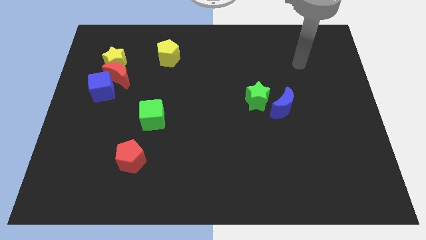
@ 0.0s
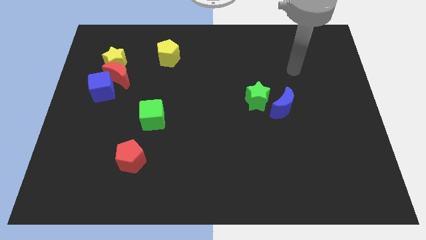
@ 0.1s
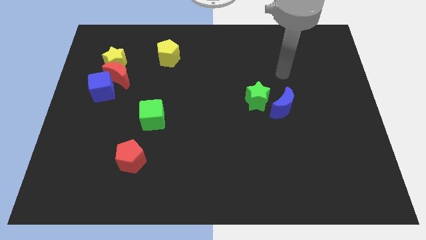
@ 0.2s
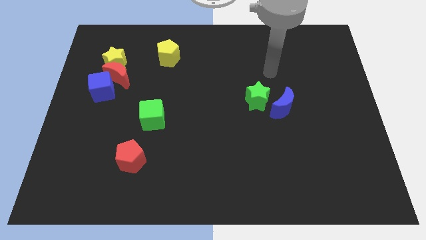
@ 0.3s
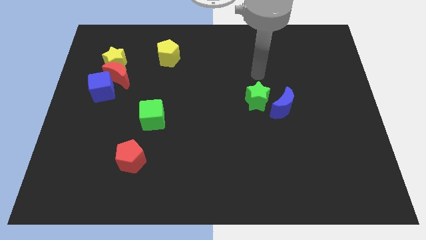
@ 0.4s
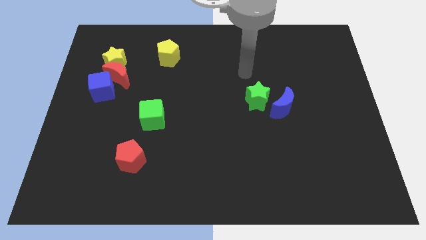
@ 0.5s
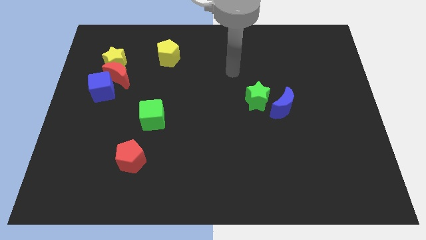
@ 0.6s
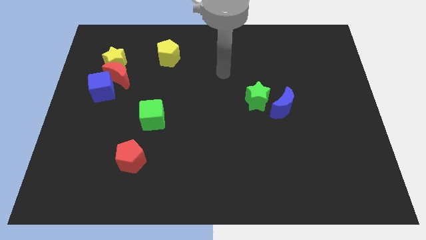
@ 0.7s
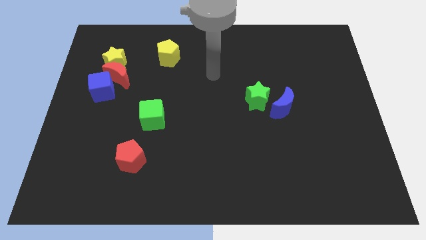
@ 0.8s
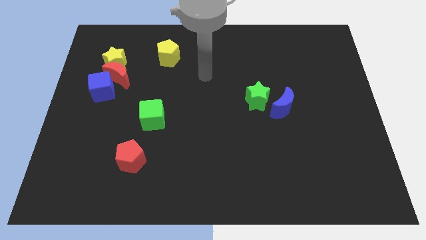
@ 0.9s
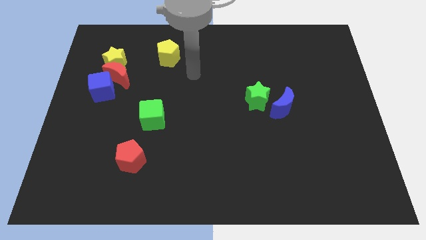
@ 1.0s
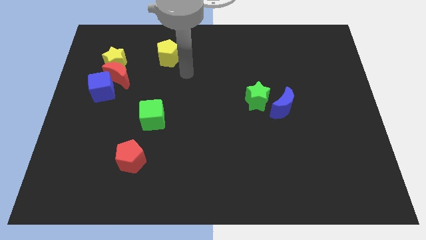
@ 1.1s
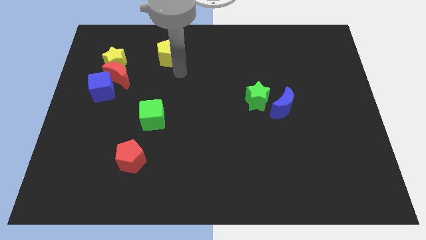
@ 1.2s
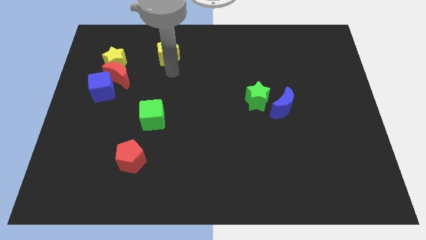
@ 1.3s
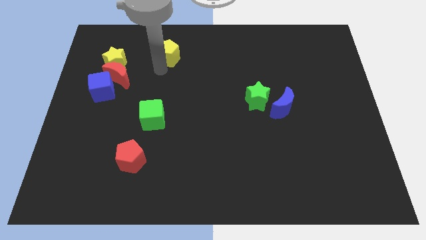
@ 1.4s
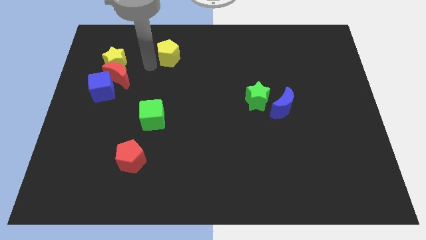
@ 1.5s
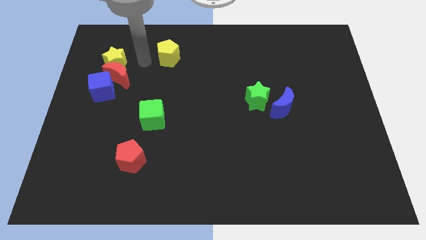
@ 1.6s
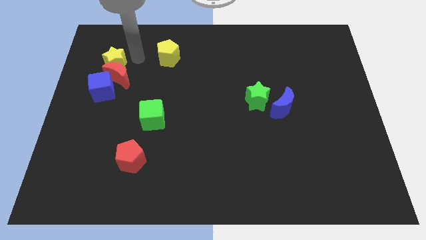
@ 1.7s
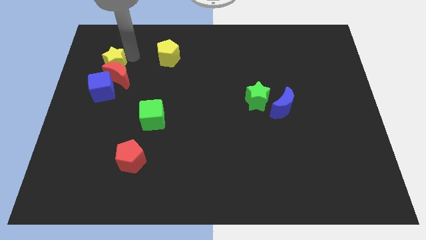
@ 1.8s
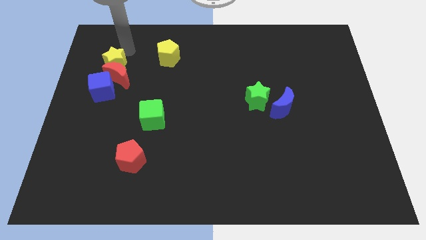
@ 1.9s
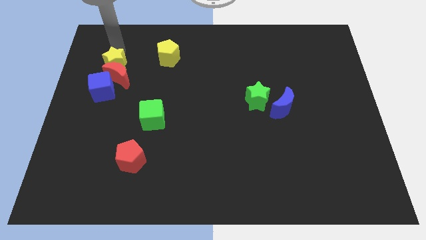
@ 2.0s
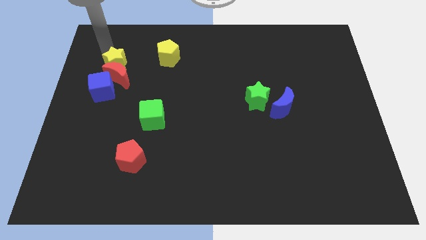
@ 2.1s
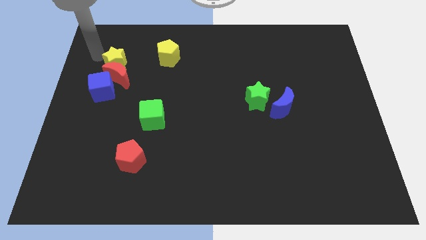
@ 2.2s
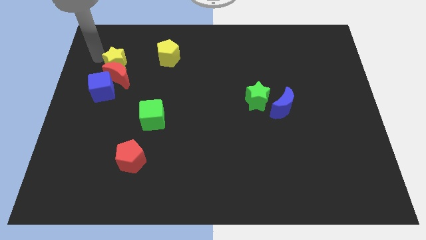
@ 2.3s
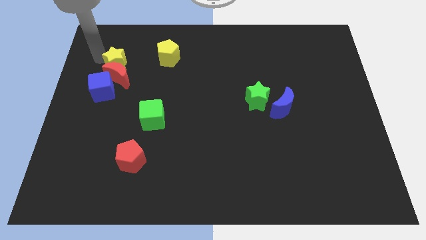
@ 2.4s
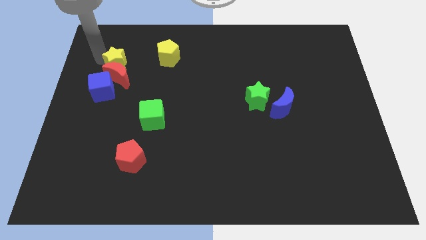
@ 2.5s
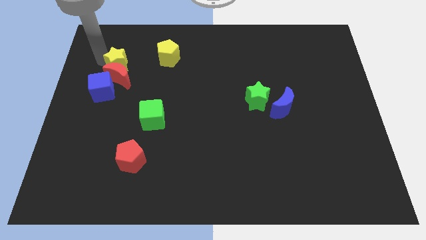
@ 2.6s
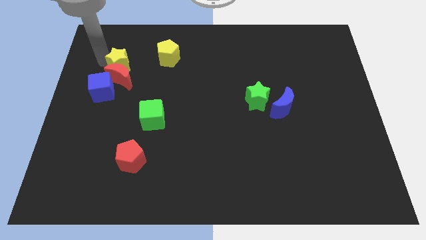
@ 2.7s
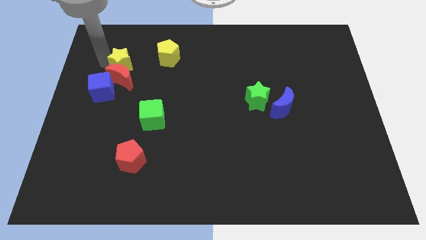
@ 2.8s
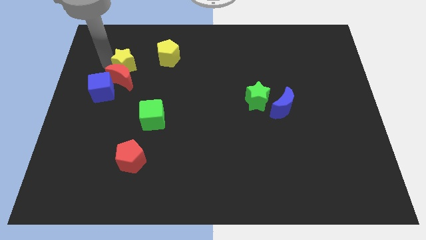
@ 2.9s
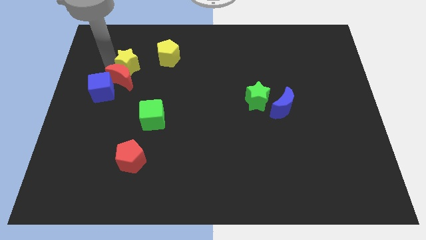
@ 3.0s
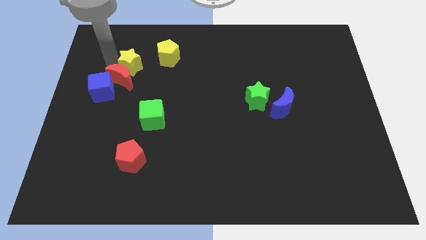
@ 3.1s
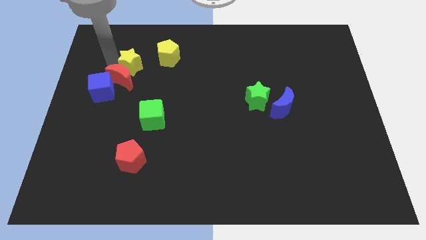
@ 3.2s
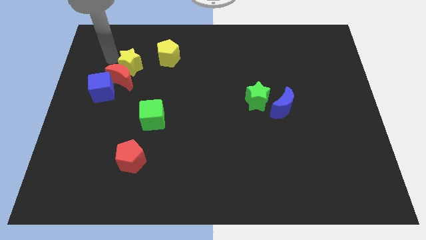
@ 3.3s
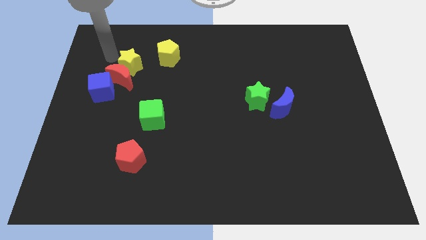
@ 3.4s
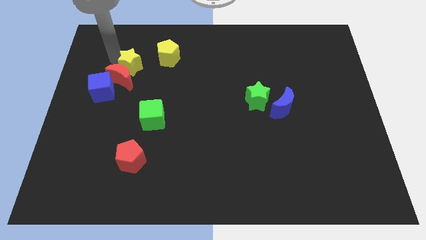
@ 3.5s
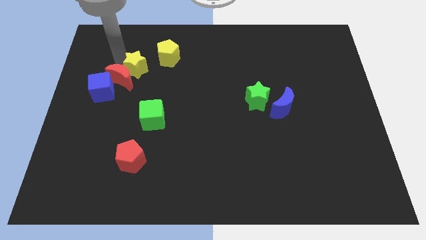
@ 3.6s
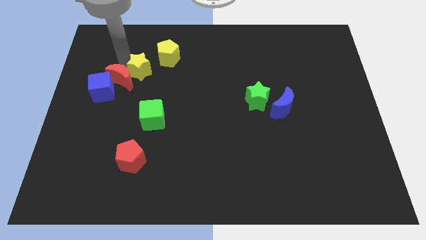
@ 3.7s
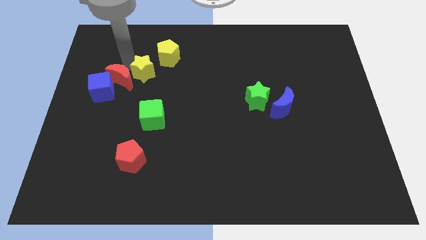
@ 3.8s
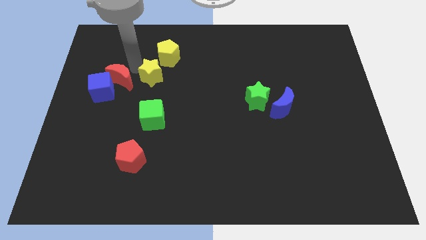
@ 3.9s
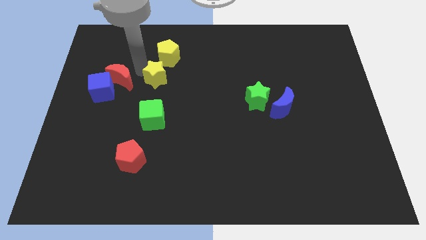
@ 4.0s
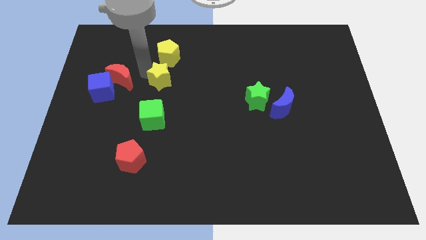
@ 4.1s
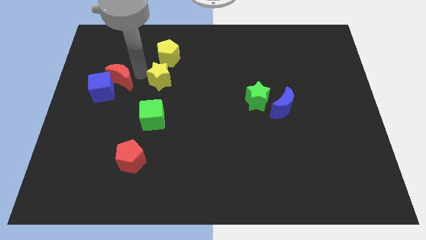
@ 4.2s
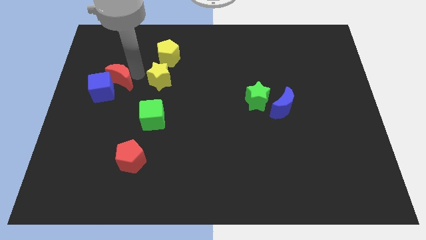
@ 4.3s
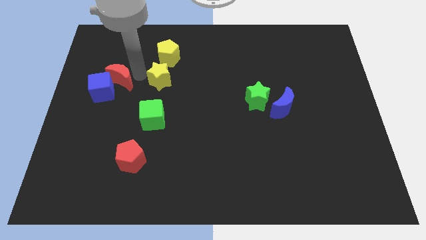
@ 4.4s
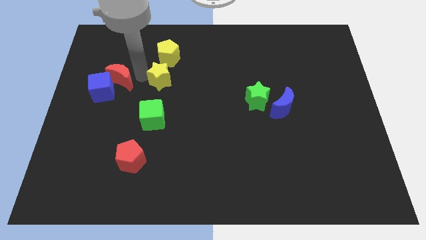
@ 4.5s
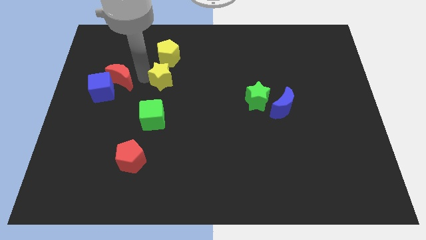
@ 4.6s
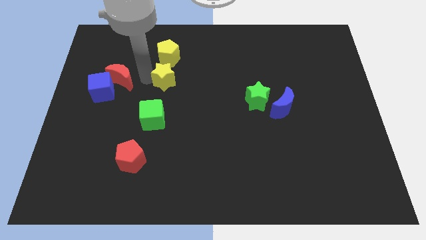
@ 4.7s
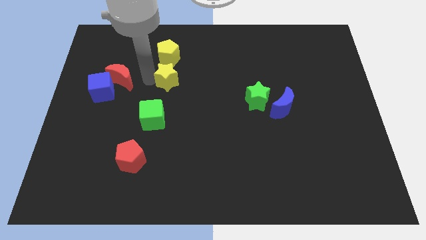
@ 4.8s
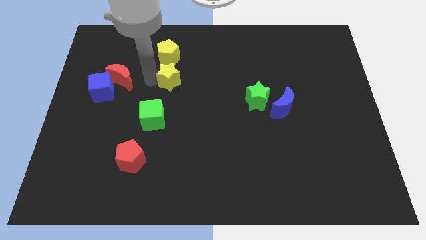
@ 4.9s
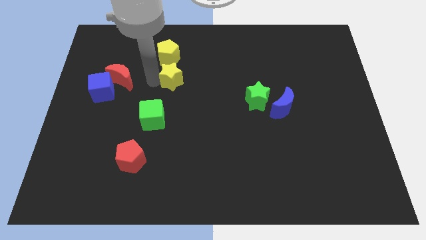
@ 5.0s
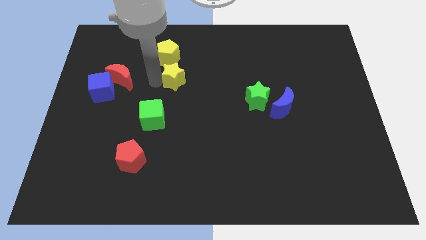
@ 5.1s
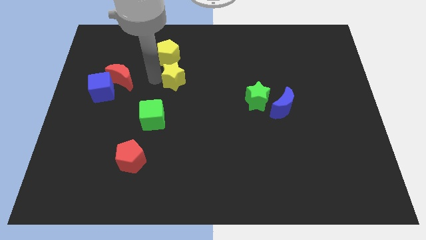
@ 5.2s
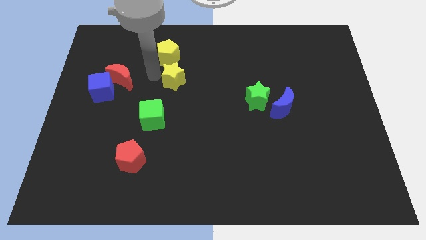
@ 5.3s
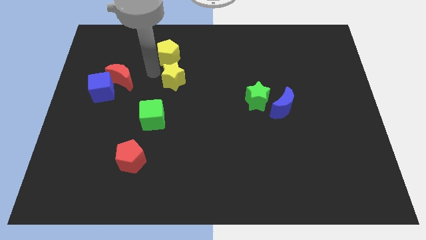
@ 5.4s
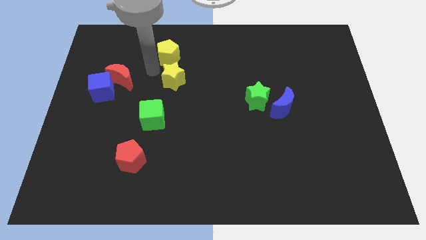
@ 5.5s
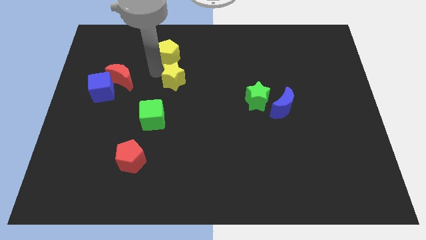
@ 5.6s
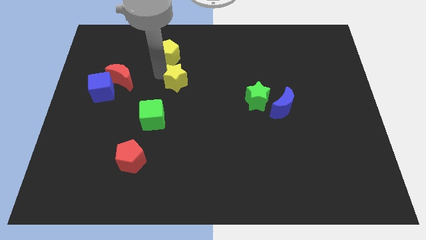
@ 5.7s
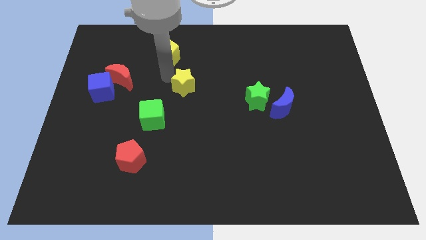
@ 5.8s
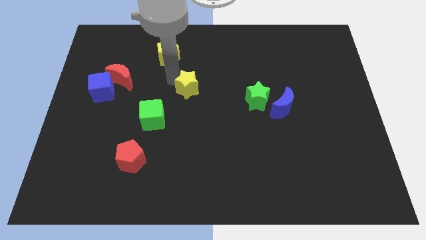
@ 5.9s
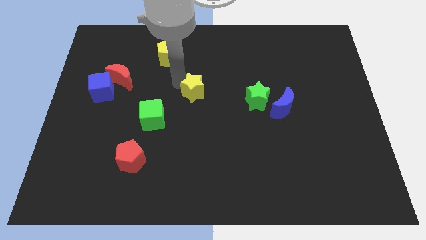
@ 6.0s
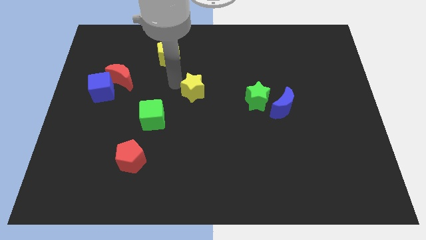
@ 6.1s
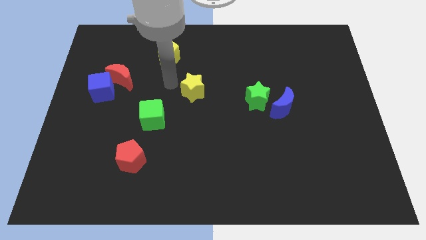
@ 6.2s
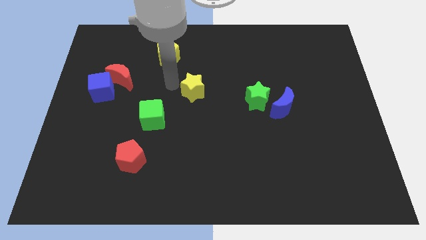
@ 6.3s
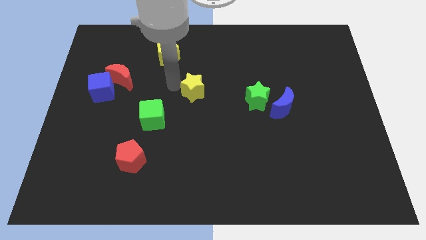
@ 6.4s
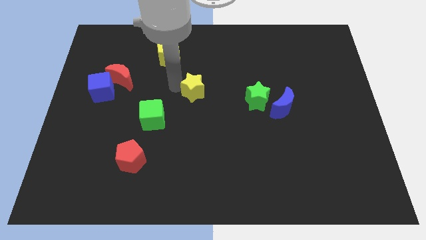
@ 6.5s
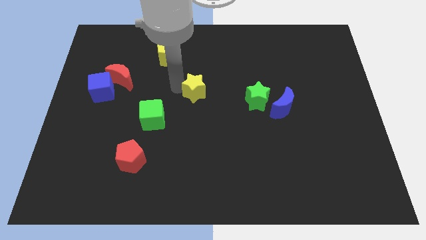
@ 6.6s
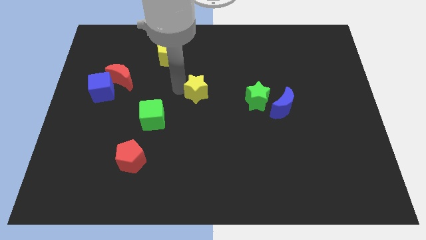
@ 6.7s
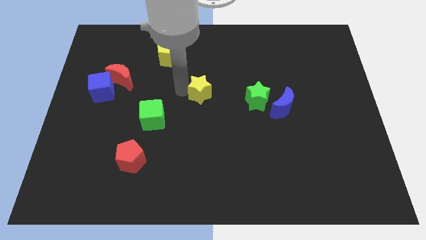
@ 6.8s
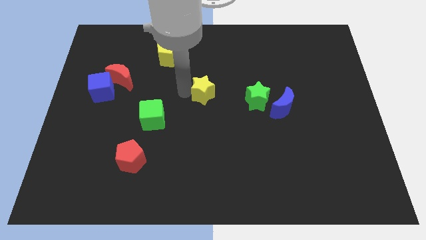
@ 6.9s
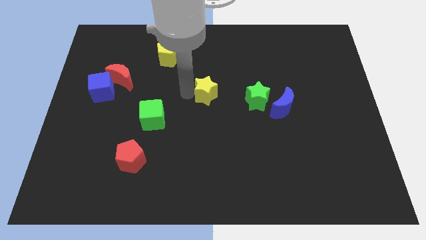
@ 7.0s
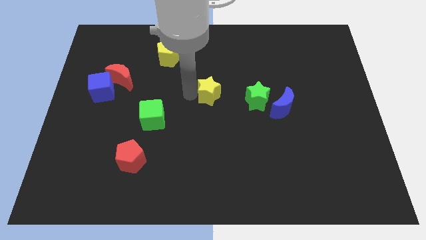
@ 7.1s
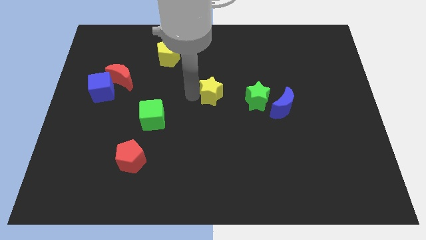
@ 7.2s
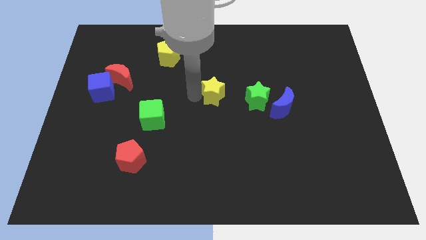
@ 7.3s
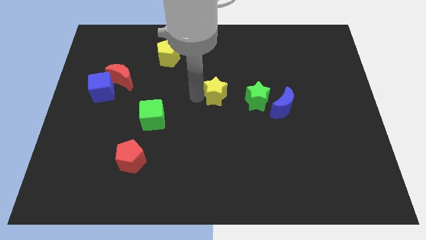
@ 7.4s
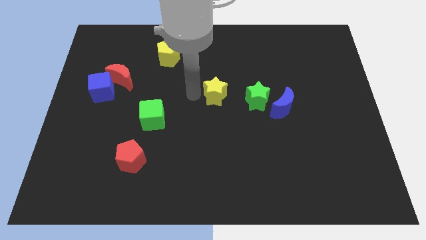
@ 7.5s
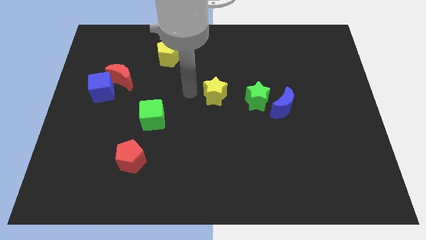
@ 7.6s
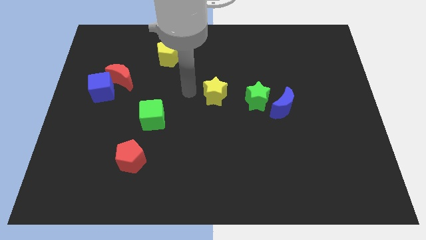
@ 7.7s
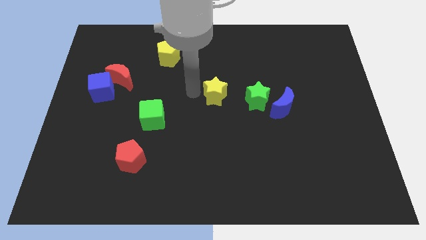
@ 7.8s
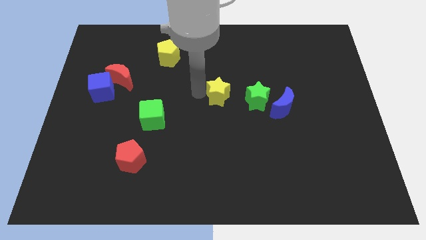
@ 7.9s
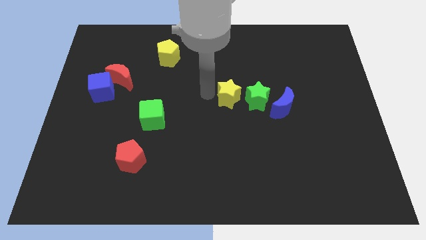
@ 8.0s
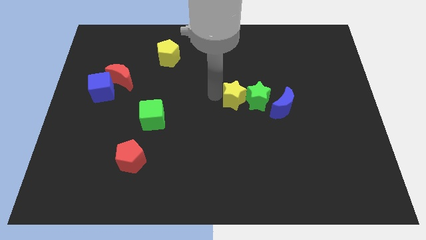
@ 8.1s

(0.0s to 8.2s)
slide the yellow star to the green star
